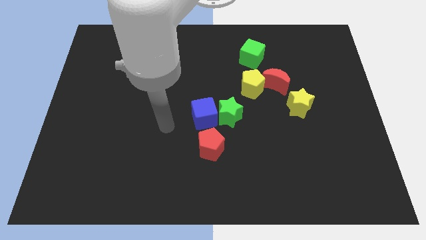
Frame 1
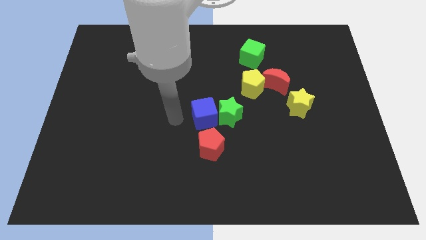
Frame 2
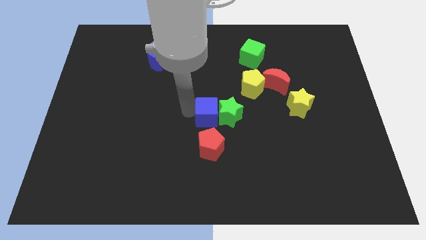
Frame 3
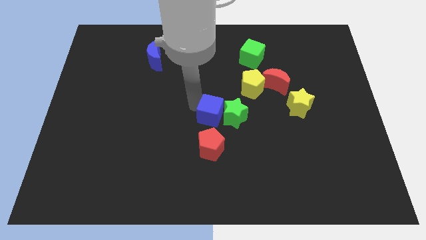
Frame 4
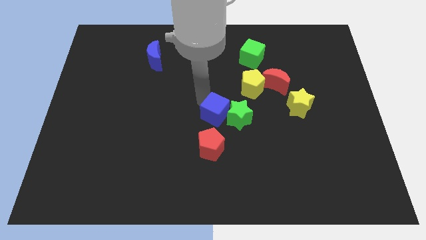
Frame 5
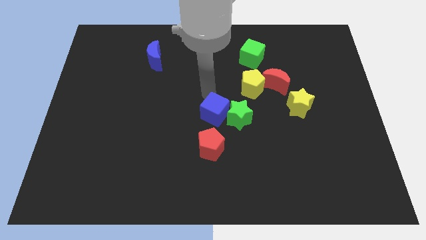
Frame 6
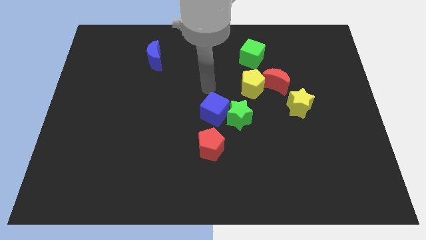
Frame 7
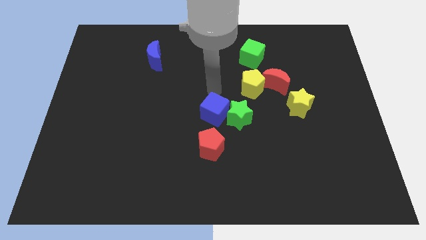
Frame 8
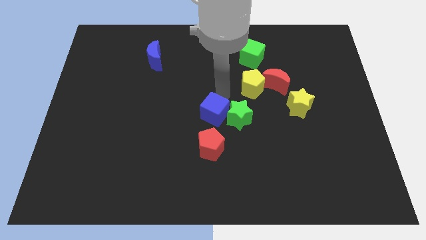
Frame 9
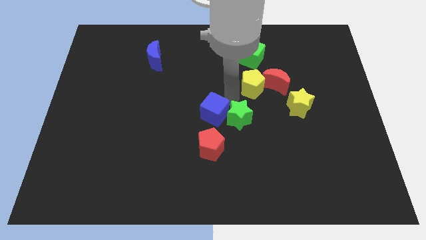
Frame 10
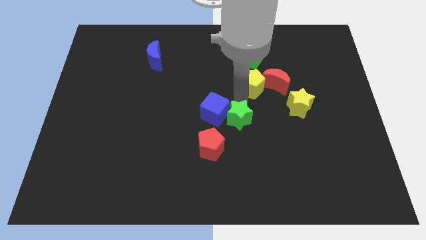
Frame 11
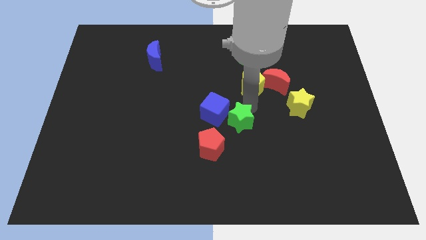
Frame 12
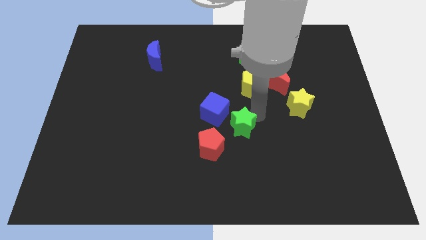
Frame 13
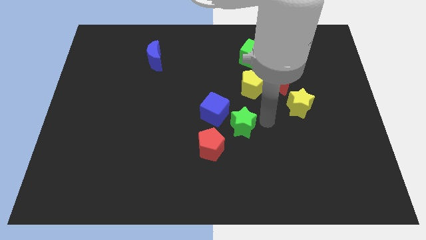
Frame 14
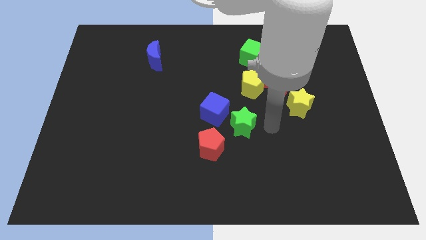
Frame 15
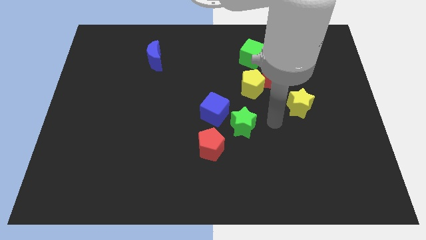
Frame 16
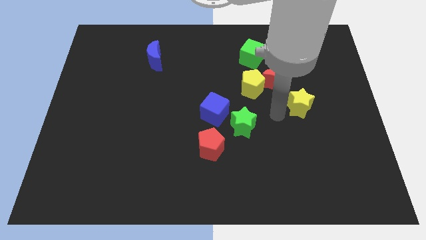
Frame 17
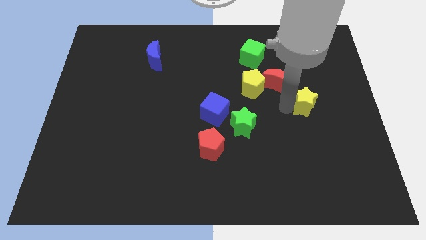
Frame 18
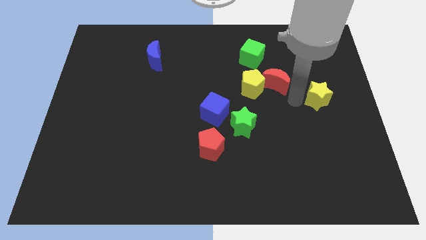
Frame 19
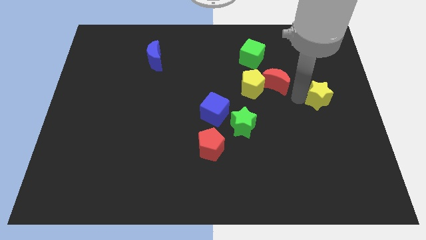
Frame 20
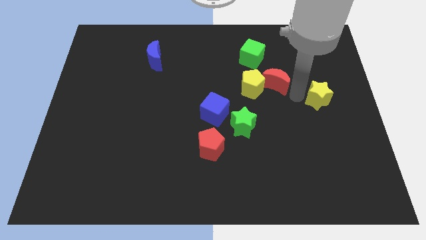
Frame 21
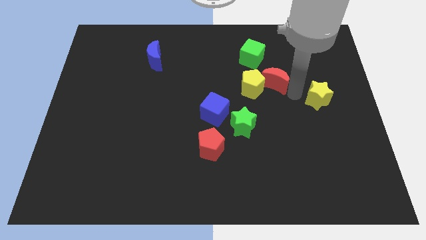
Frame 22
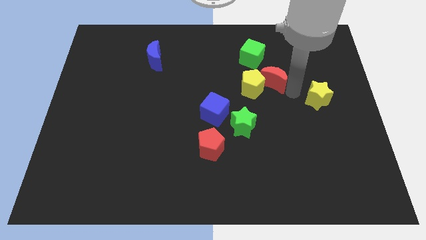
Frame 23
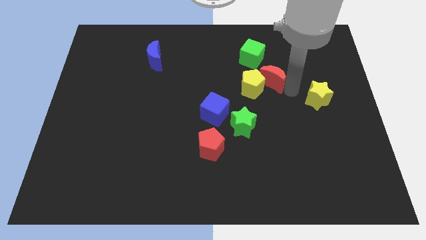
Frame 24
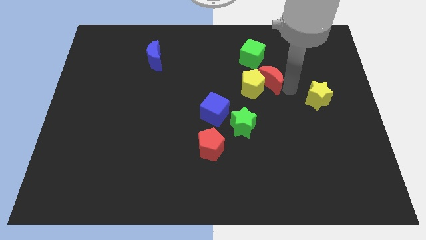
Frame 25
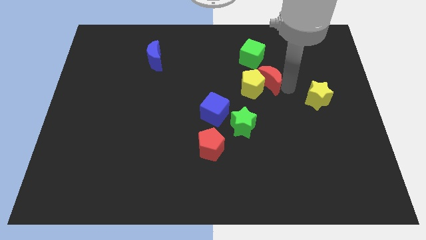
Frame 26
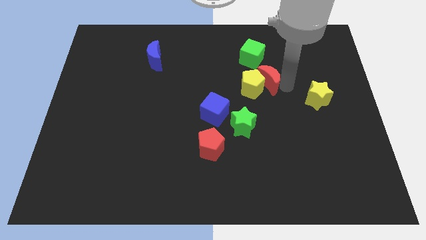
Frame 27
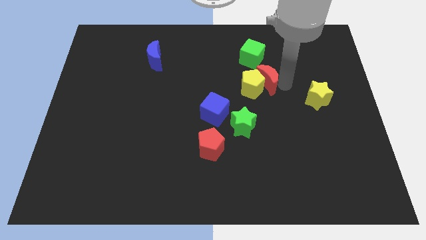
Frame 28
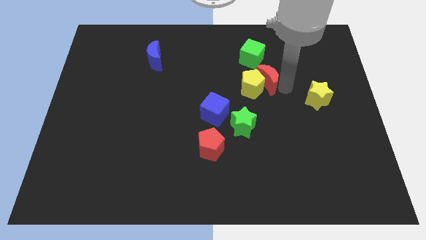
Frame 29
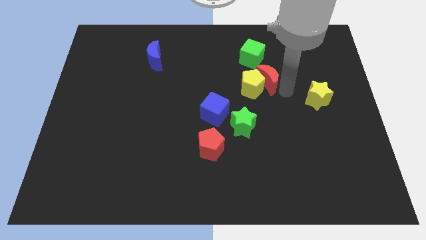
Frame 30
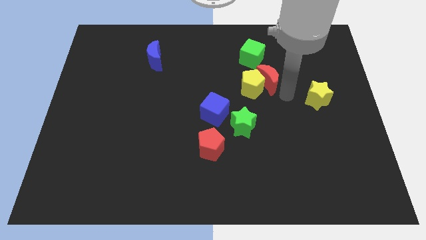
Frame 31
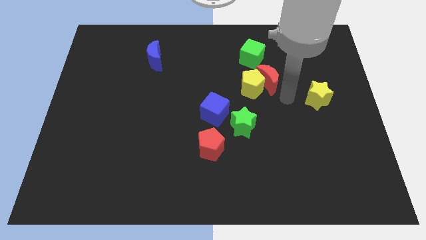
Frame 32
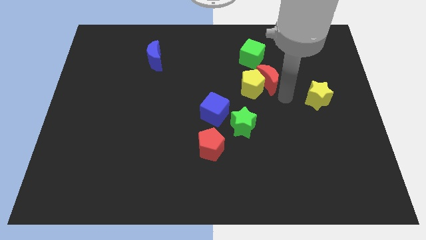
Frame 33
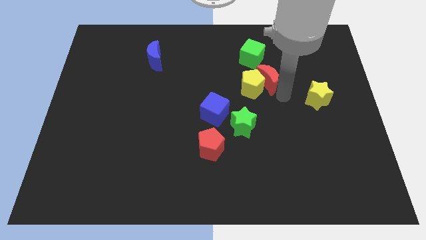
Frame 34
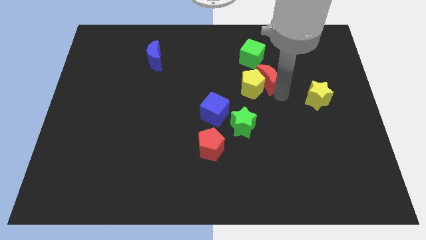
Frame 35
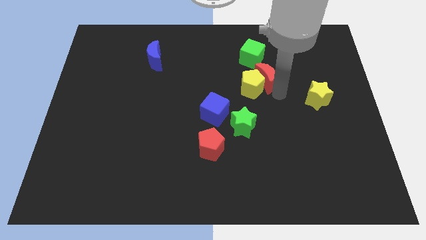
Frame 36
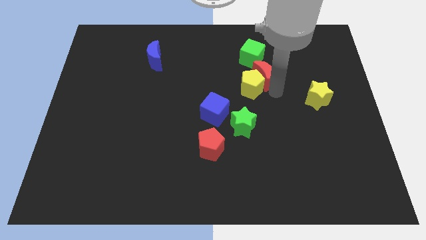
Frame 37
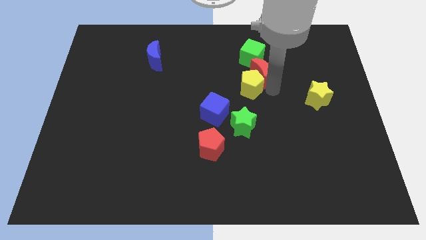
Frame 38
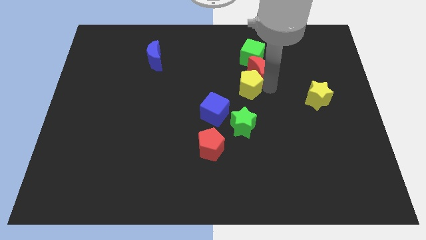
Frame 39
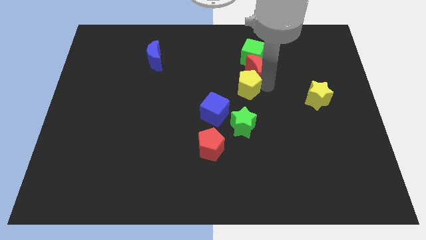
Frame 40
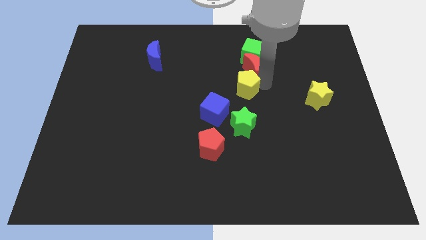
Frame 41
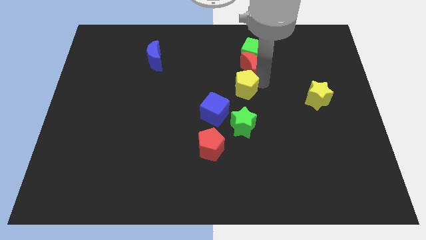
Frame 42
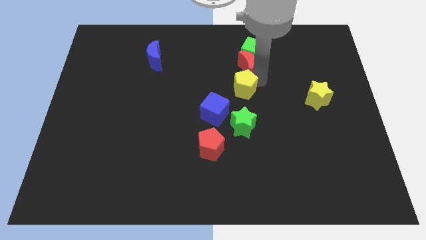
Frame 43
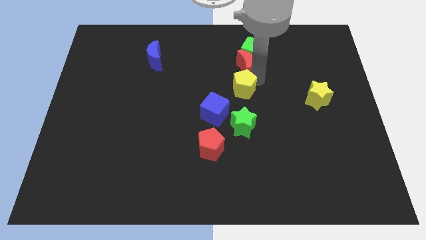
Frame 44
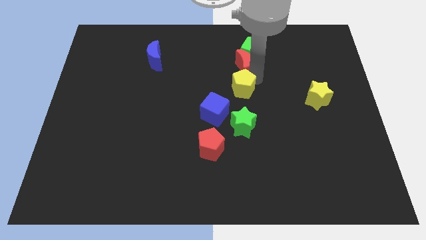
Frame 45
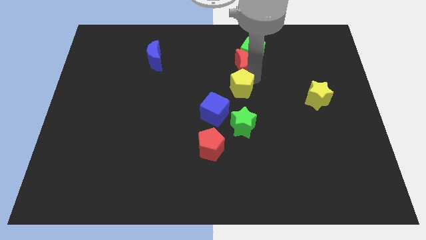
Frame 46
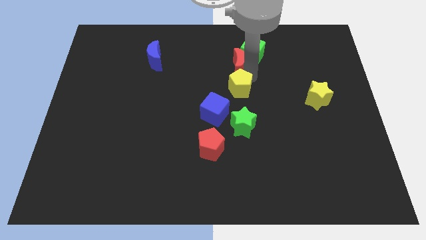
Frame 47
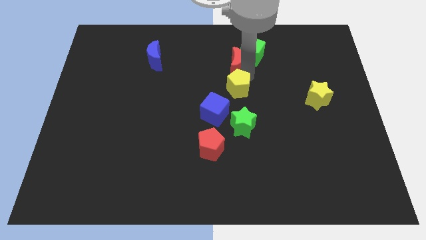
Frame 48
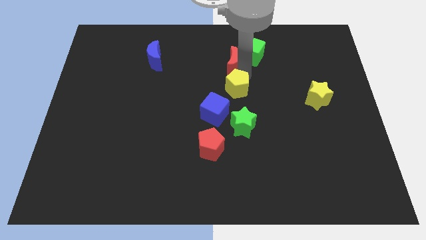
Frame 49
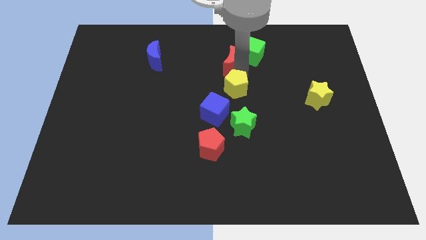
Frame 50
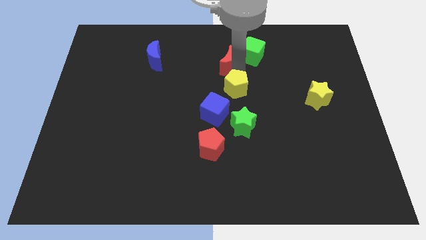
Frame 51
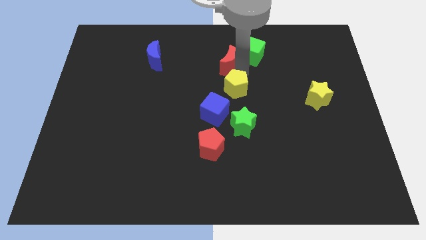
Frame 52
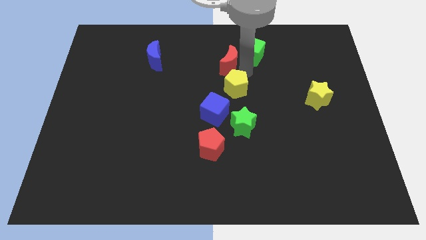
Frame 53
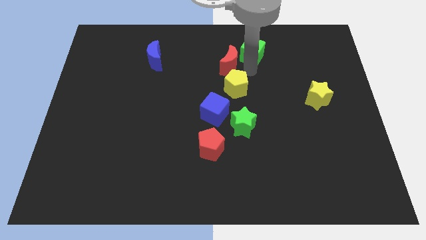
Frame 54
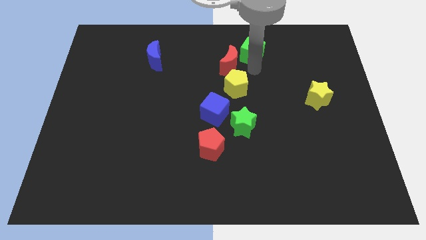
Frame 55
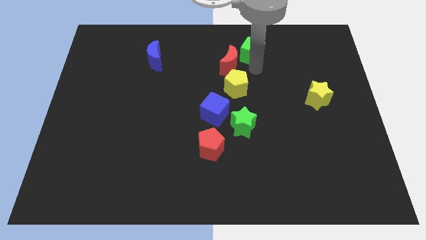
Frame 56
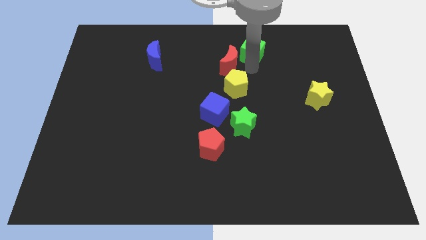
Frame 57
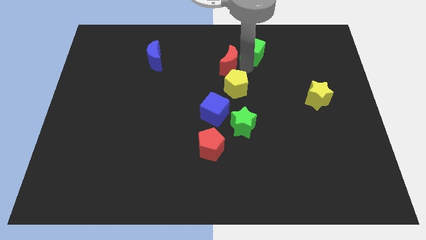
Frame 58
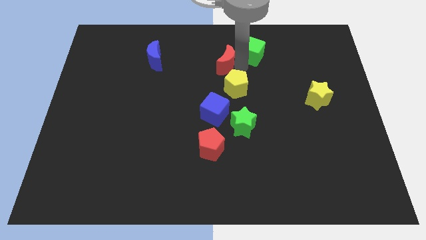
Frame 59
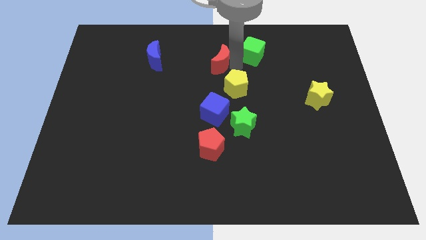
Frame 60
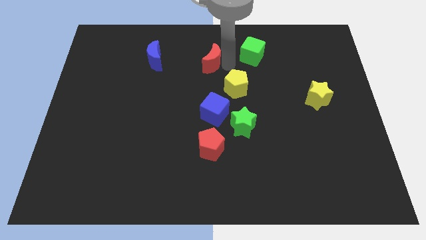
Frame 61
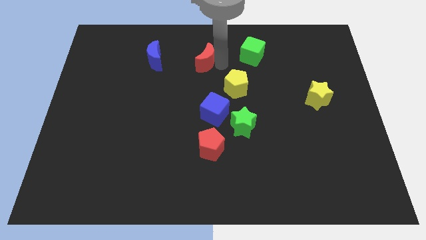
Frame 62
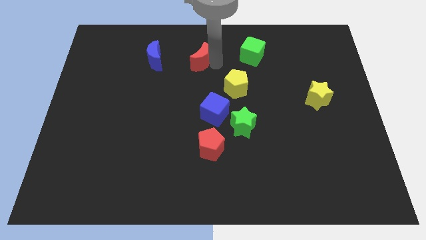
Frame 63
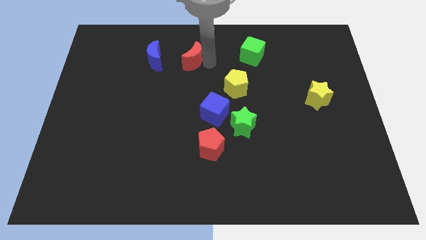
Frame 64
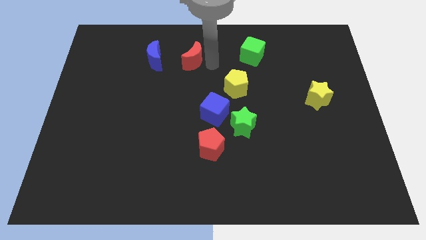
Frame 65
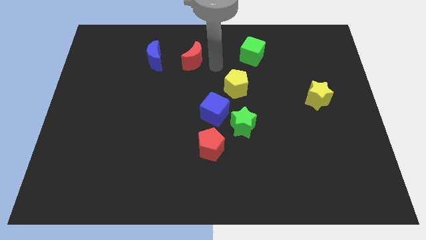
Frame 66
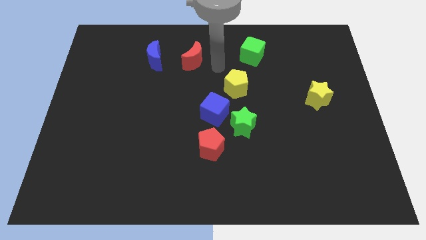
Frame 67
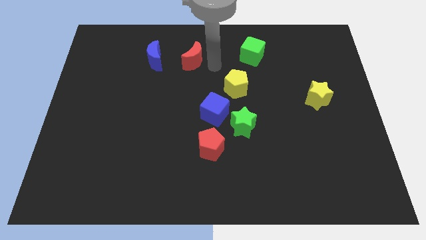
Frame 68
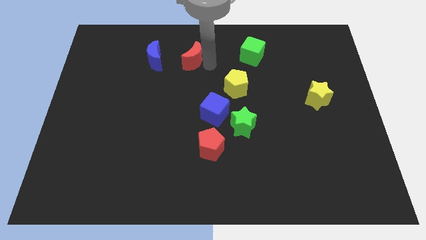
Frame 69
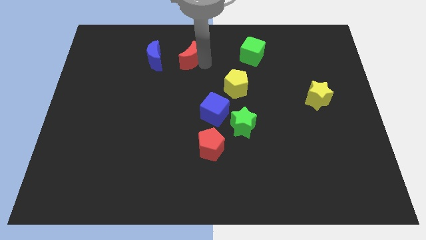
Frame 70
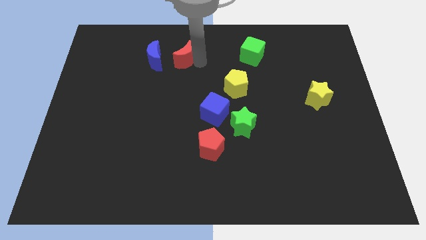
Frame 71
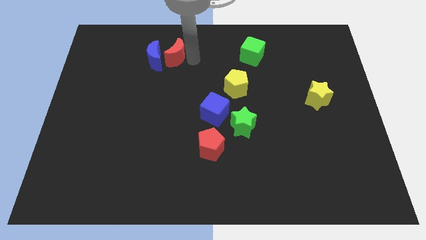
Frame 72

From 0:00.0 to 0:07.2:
push the red moon to the blue moon
